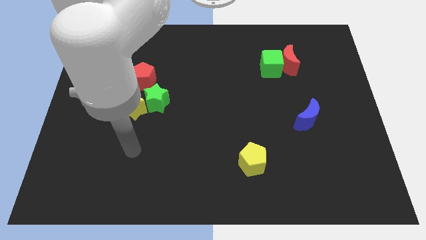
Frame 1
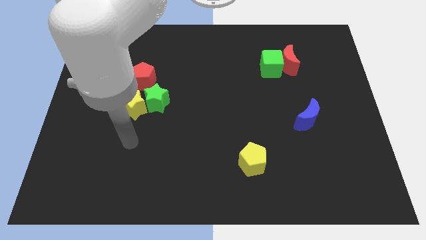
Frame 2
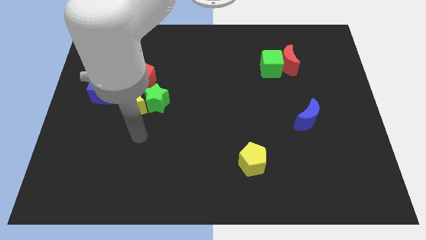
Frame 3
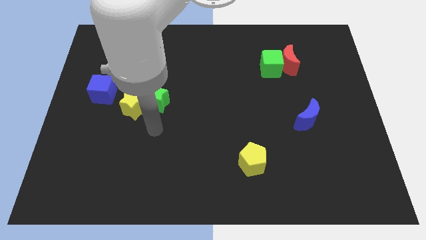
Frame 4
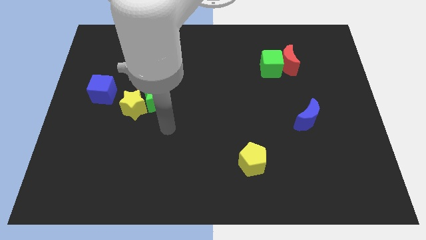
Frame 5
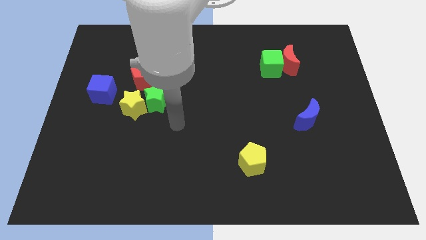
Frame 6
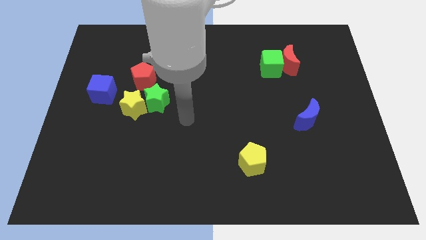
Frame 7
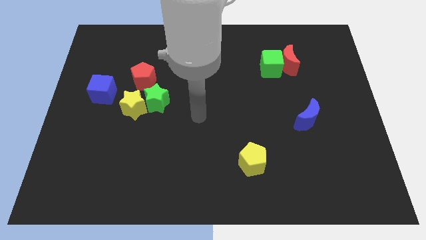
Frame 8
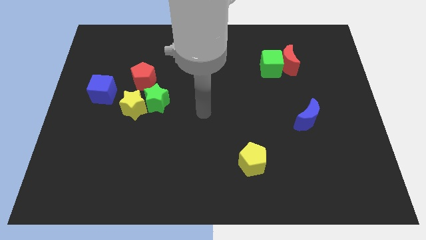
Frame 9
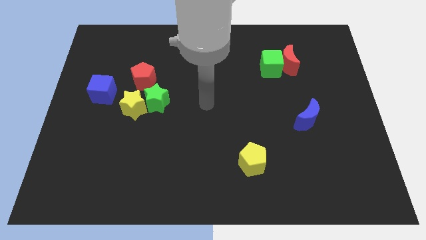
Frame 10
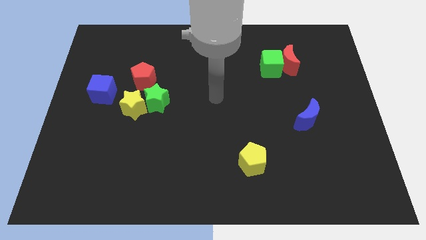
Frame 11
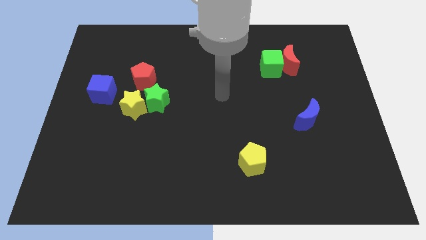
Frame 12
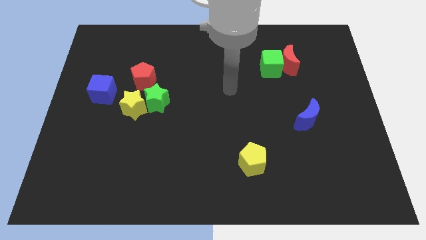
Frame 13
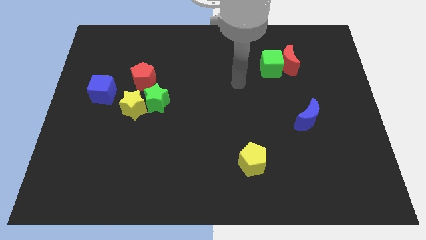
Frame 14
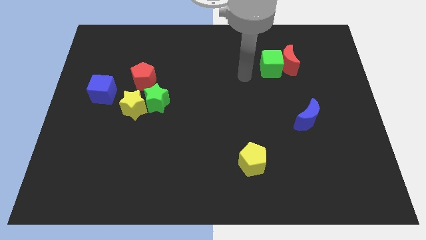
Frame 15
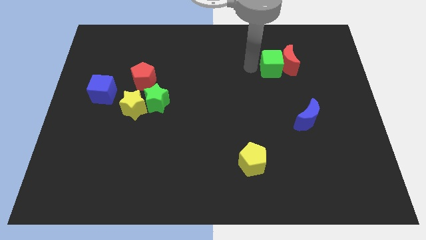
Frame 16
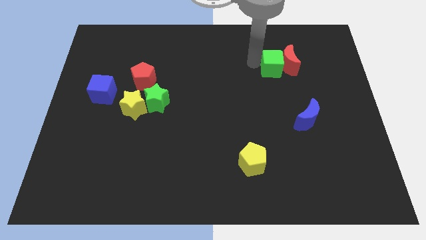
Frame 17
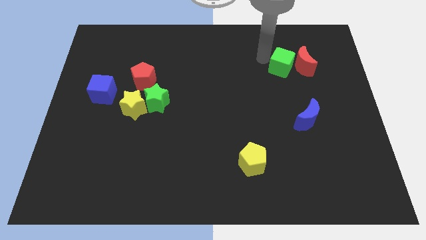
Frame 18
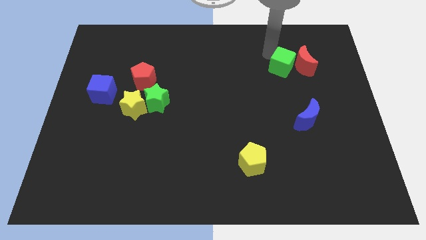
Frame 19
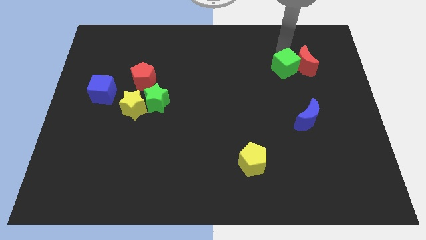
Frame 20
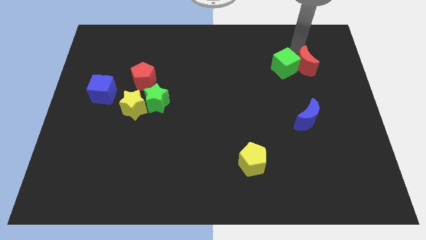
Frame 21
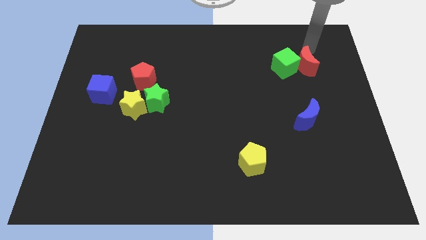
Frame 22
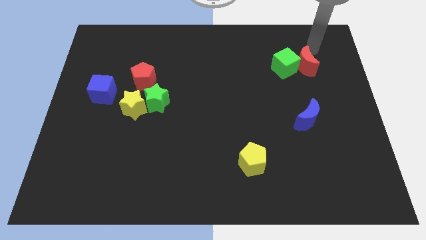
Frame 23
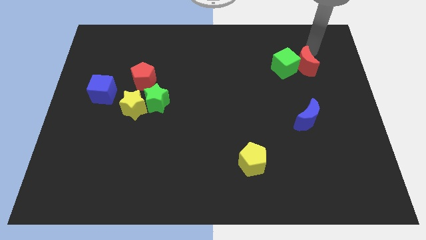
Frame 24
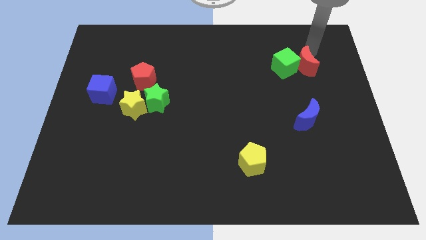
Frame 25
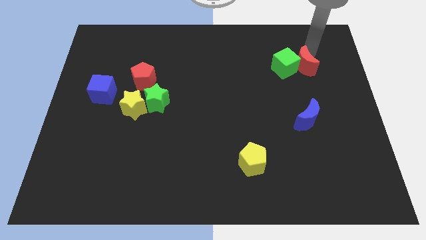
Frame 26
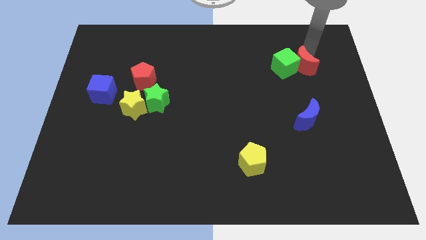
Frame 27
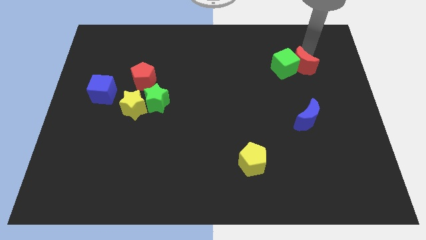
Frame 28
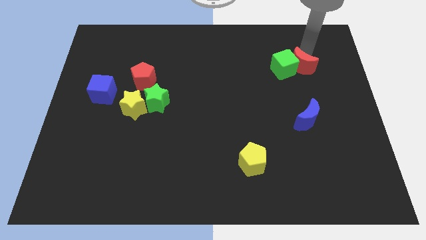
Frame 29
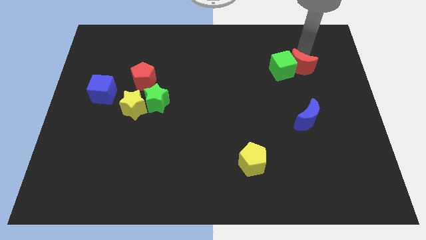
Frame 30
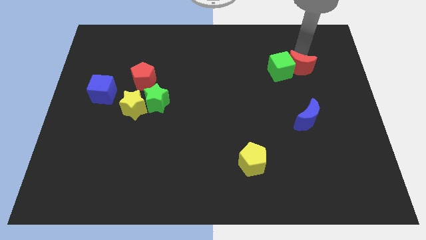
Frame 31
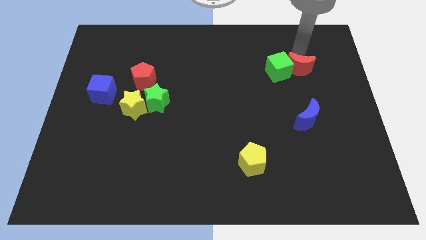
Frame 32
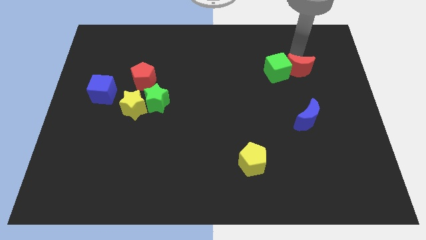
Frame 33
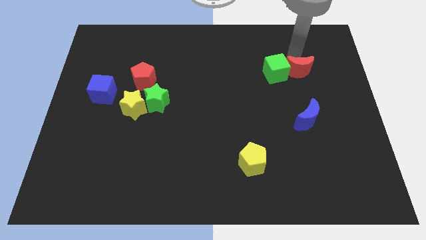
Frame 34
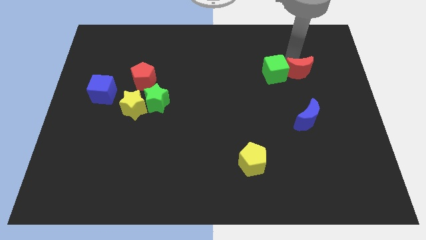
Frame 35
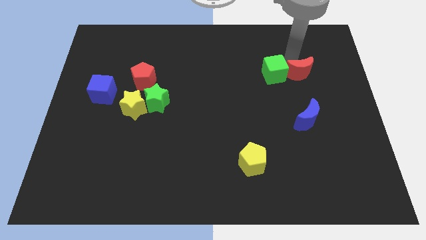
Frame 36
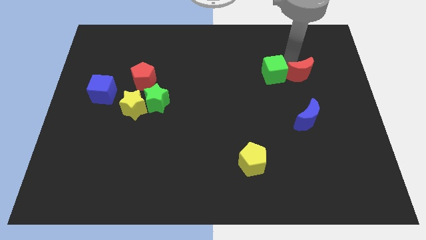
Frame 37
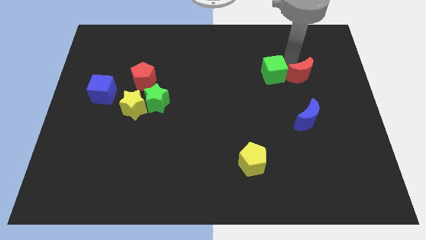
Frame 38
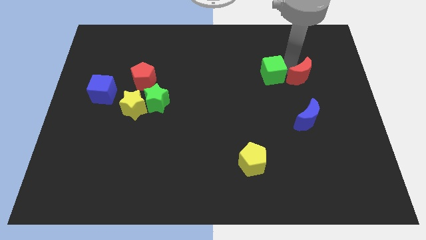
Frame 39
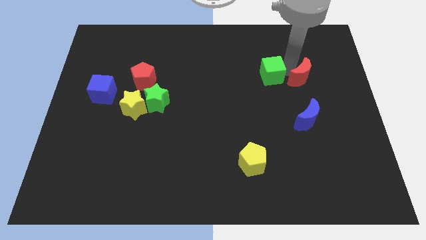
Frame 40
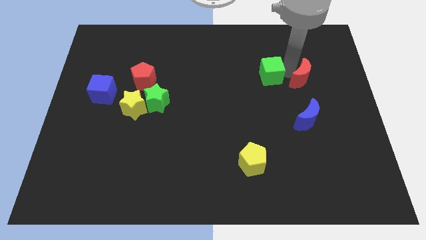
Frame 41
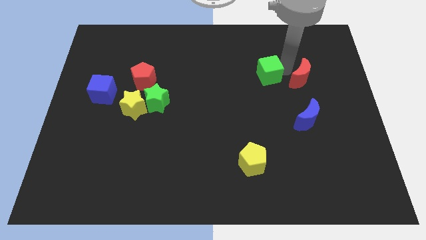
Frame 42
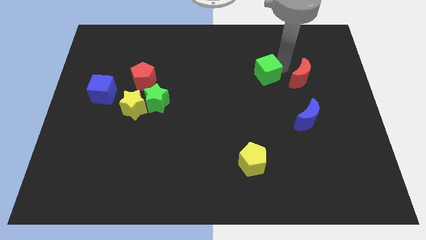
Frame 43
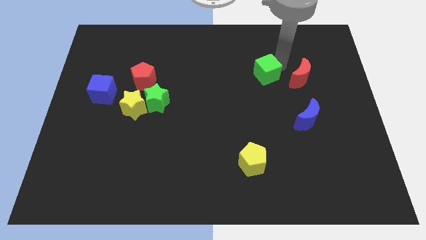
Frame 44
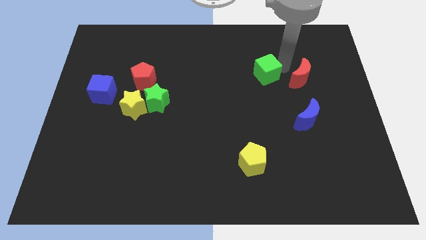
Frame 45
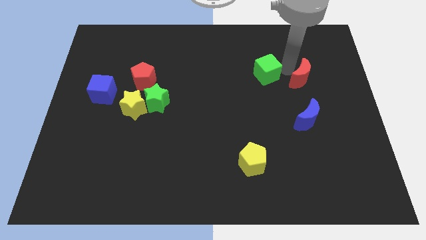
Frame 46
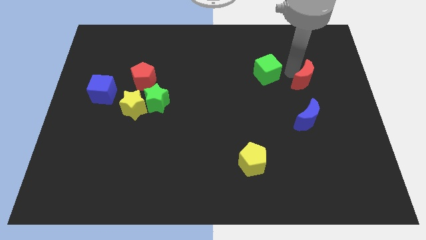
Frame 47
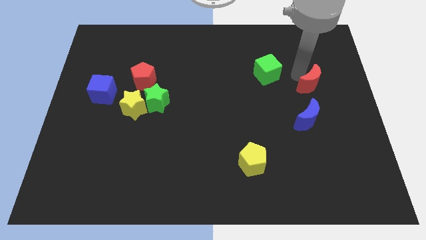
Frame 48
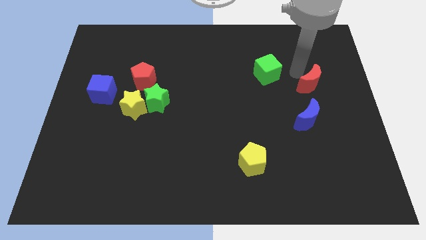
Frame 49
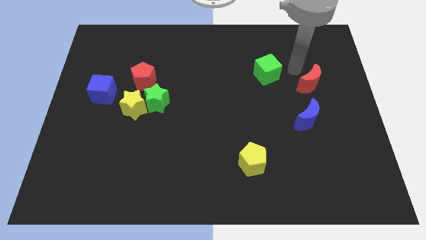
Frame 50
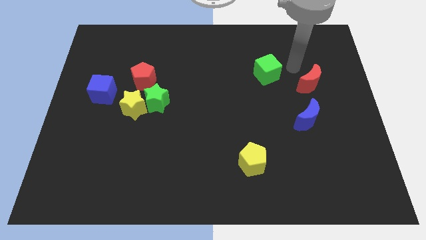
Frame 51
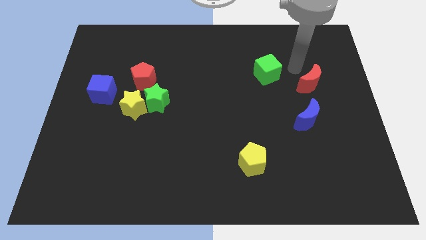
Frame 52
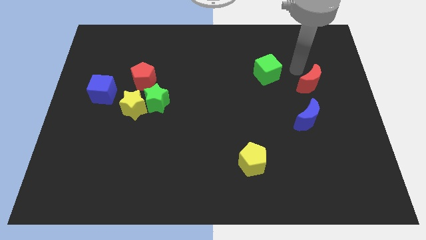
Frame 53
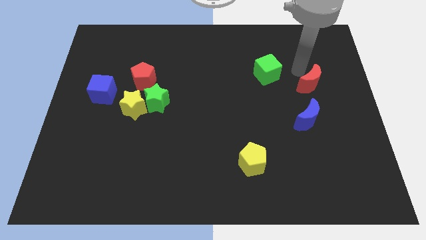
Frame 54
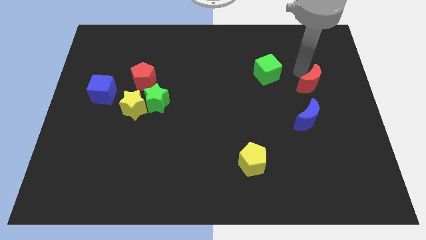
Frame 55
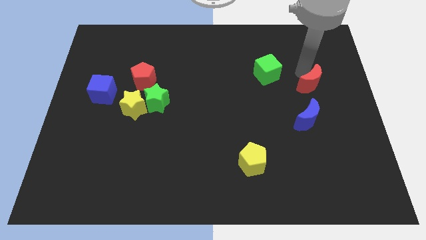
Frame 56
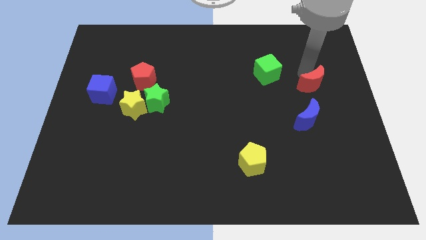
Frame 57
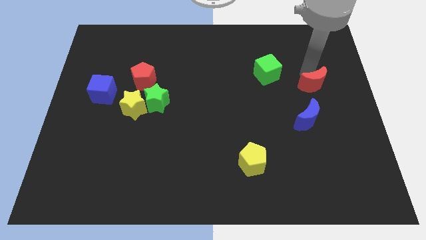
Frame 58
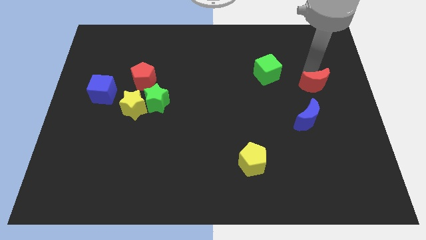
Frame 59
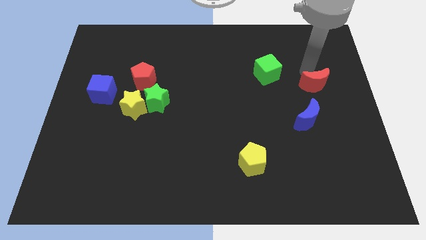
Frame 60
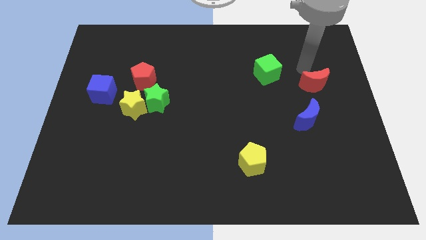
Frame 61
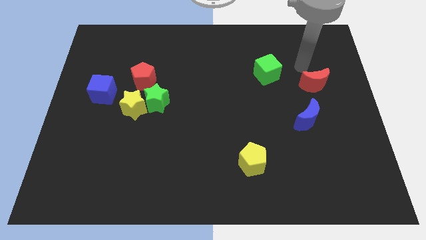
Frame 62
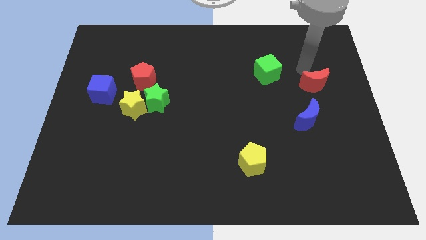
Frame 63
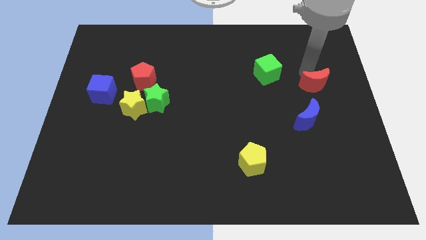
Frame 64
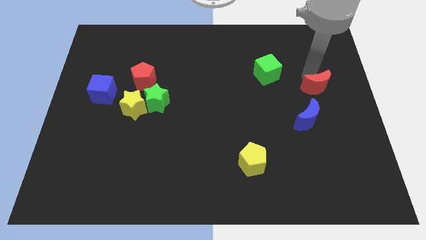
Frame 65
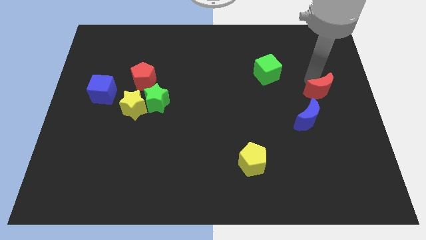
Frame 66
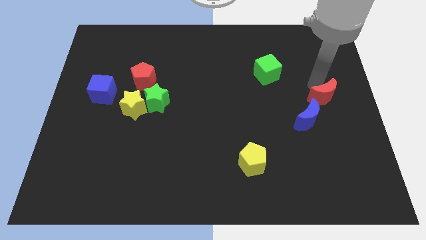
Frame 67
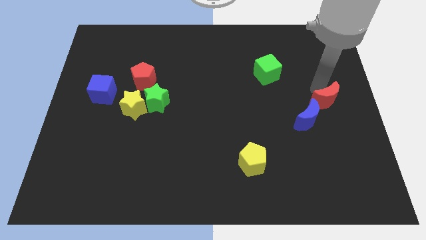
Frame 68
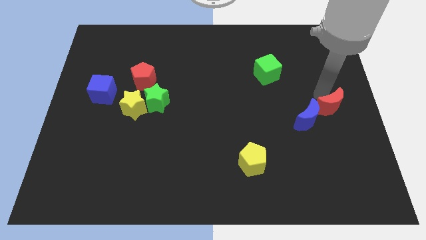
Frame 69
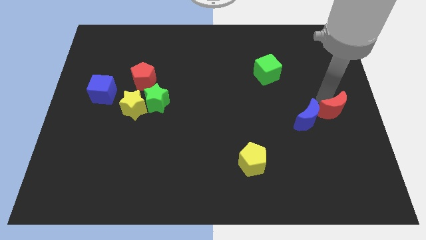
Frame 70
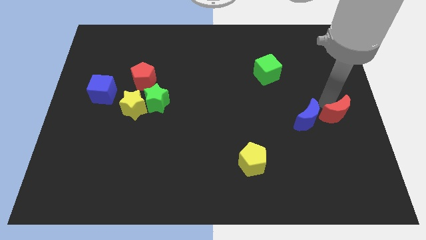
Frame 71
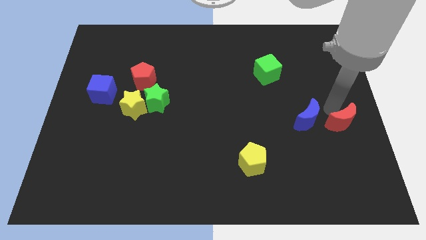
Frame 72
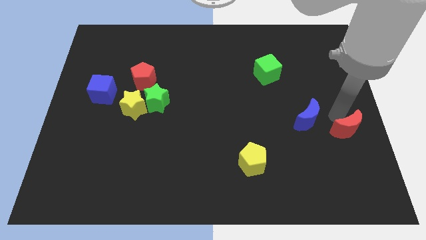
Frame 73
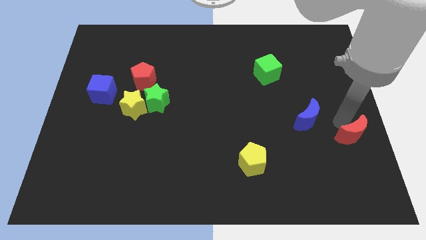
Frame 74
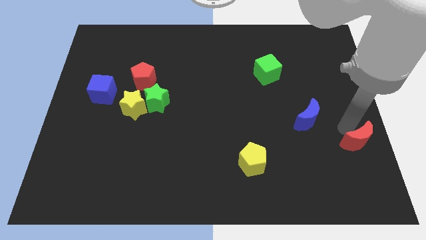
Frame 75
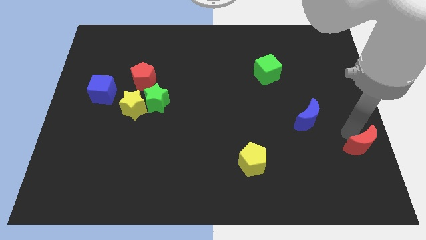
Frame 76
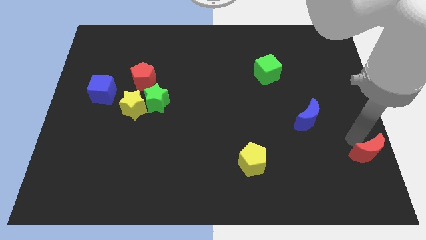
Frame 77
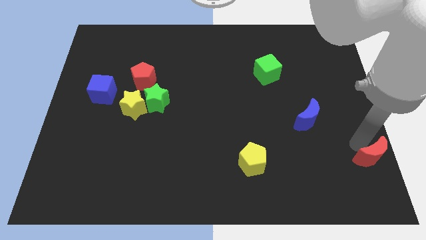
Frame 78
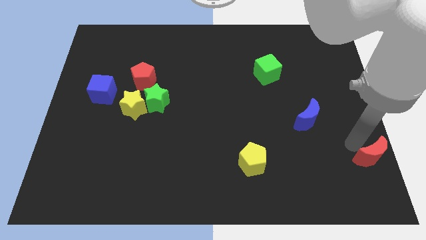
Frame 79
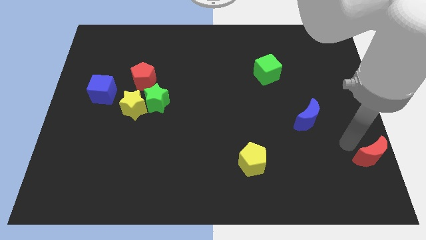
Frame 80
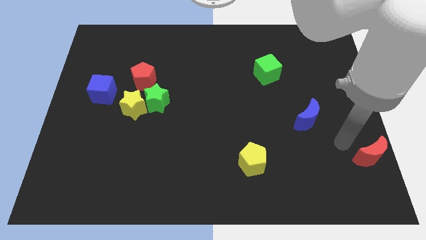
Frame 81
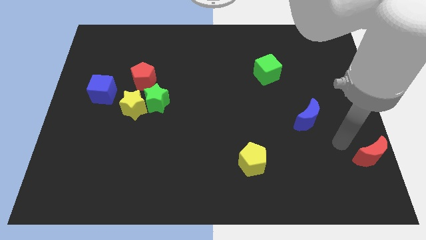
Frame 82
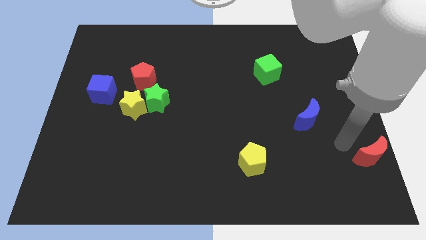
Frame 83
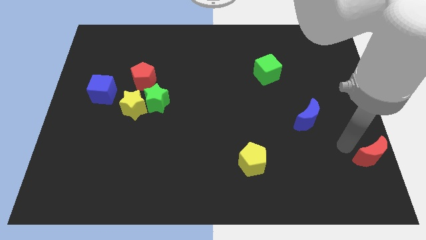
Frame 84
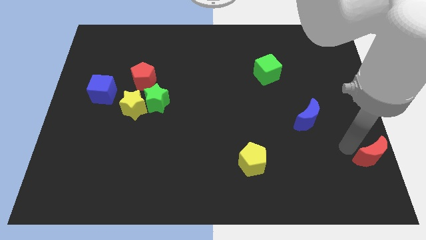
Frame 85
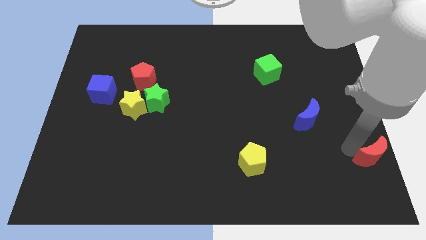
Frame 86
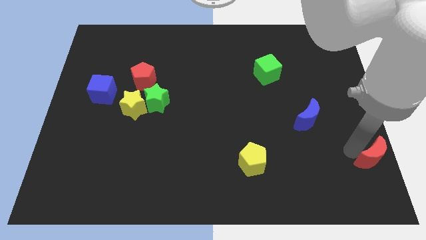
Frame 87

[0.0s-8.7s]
slide the red moon to the bottom right
